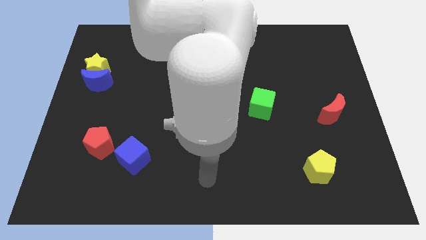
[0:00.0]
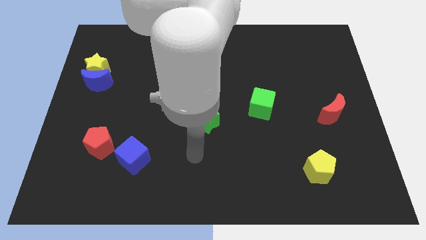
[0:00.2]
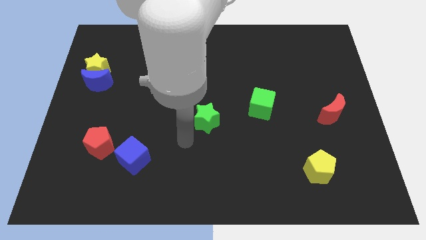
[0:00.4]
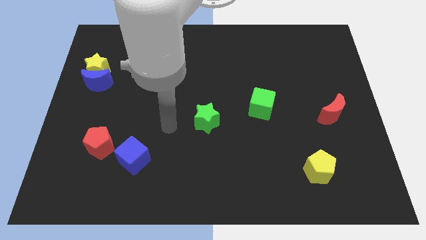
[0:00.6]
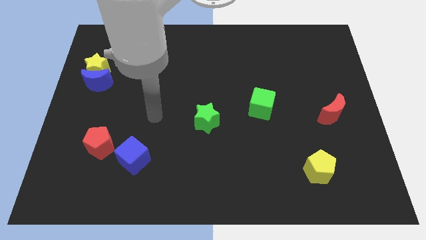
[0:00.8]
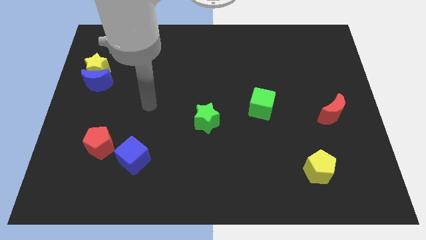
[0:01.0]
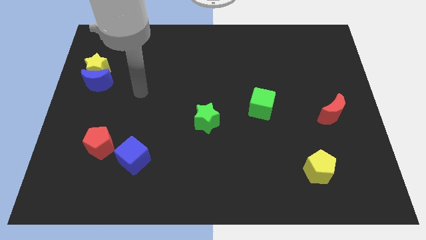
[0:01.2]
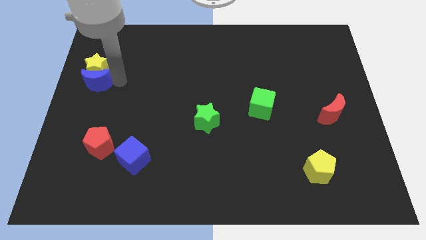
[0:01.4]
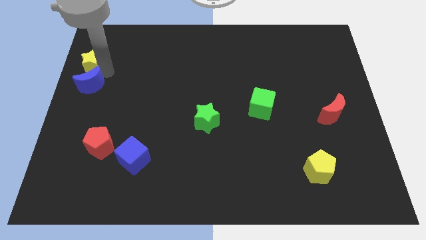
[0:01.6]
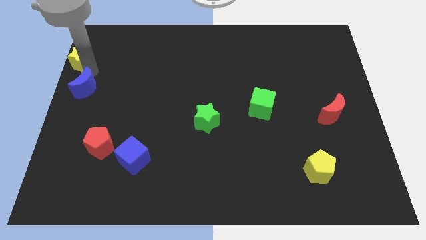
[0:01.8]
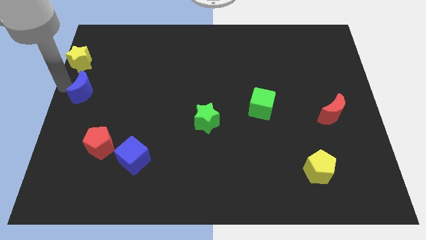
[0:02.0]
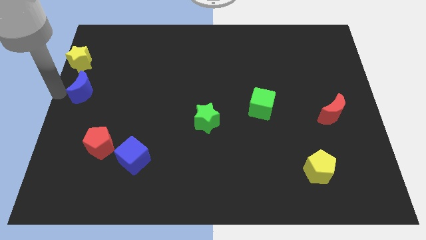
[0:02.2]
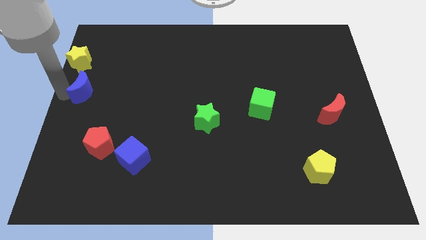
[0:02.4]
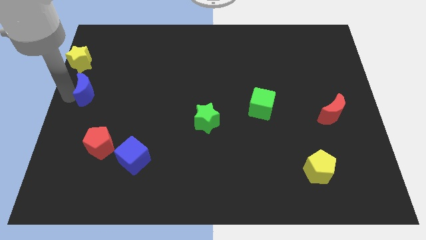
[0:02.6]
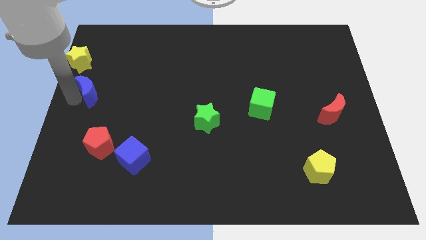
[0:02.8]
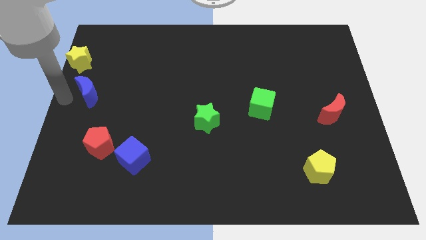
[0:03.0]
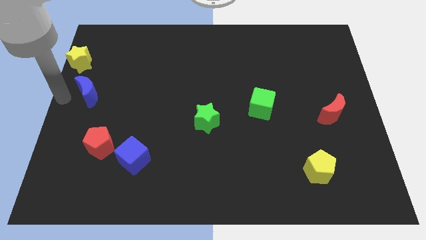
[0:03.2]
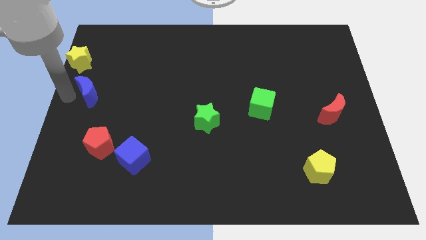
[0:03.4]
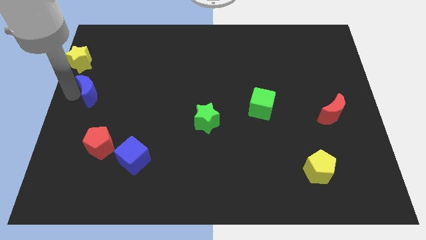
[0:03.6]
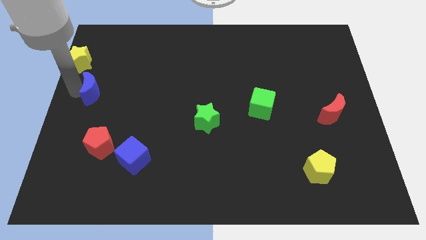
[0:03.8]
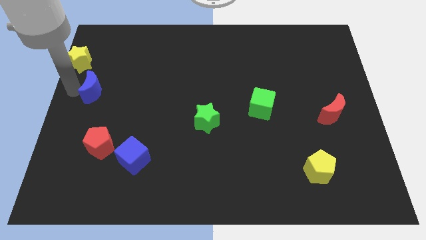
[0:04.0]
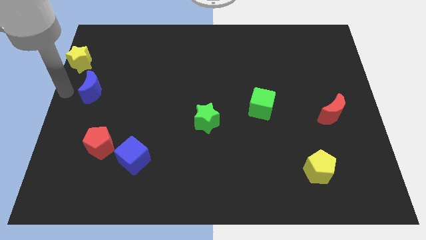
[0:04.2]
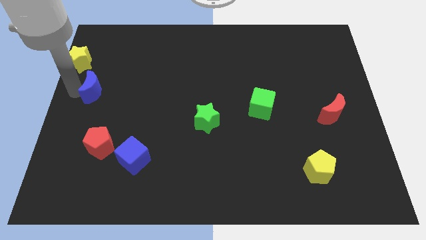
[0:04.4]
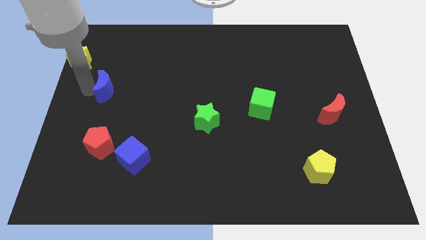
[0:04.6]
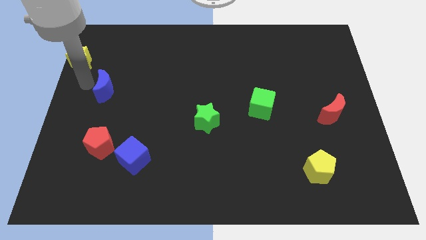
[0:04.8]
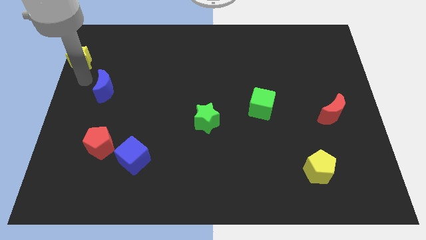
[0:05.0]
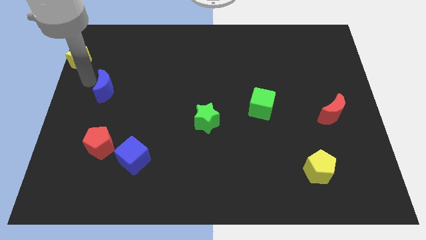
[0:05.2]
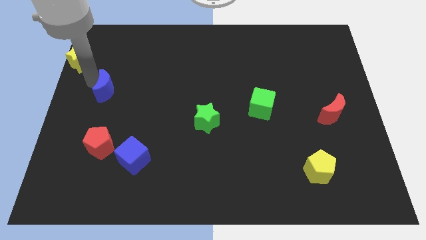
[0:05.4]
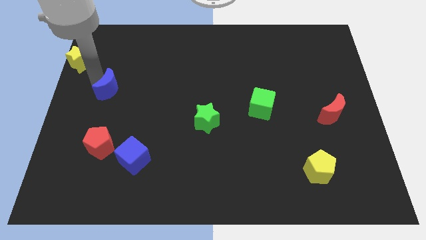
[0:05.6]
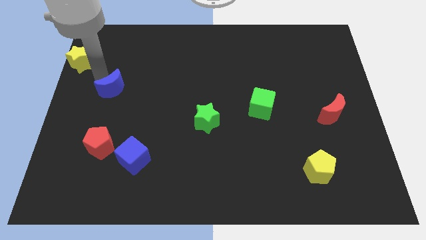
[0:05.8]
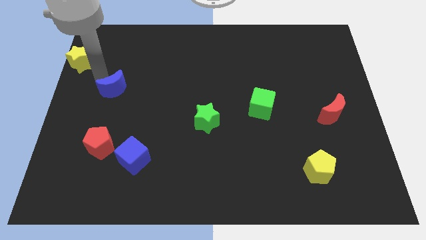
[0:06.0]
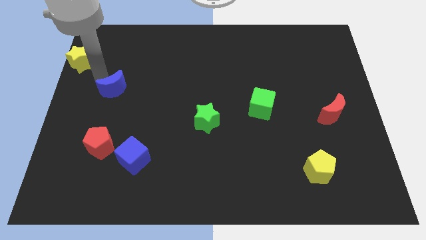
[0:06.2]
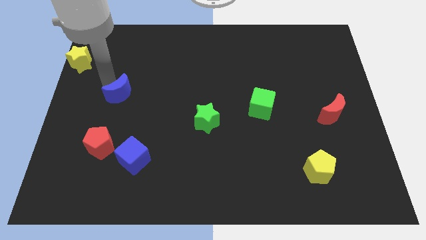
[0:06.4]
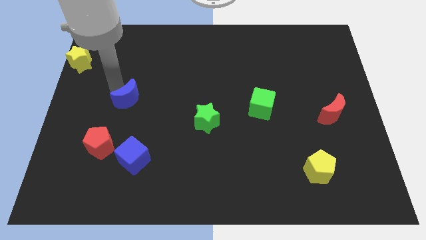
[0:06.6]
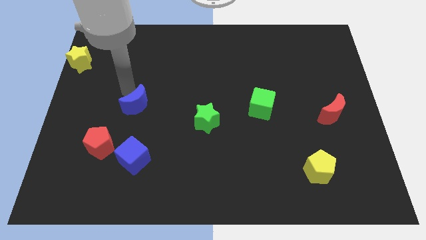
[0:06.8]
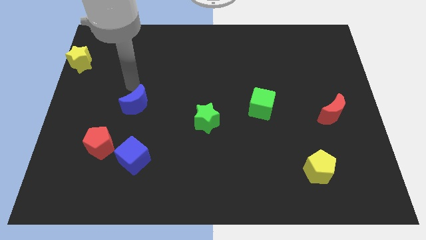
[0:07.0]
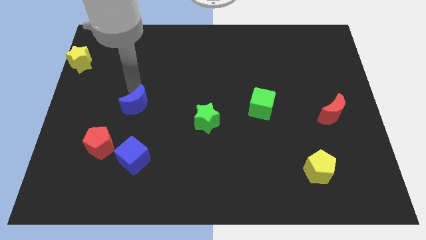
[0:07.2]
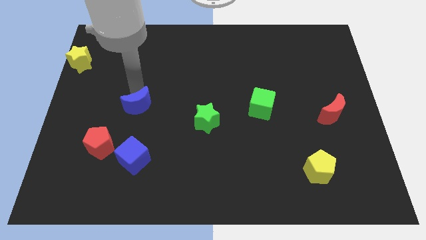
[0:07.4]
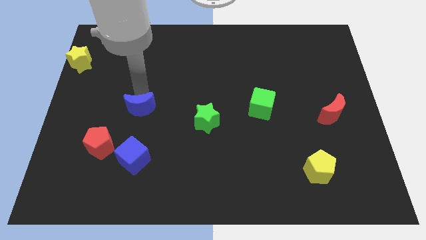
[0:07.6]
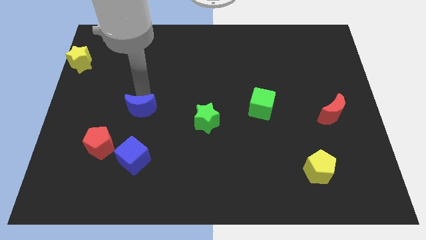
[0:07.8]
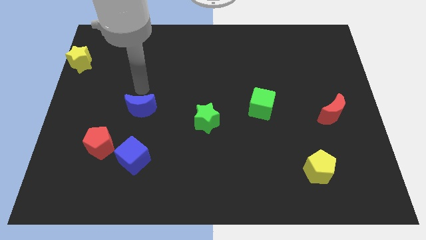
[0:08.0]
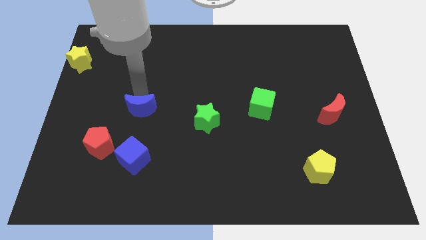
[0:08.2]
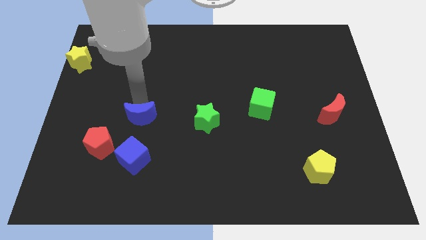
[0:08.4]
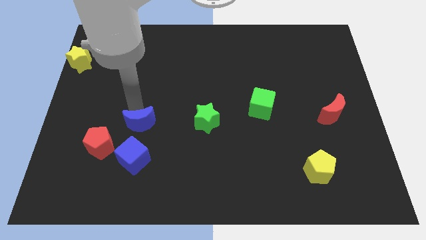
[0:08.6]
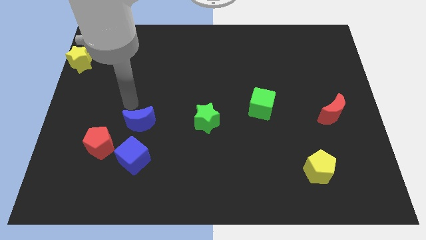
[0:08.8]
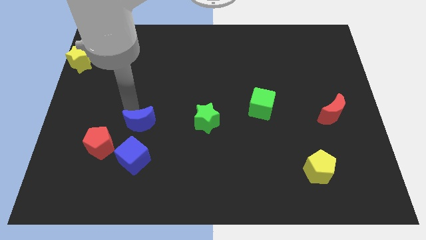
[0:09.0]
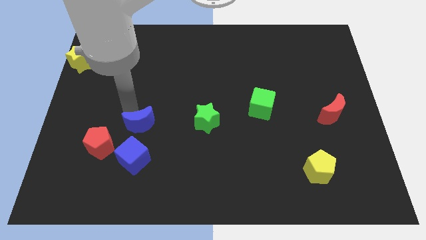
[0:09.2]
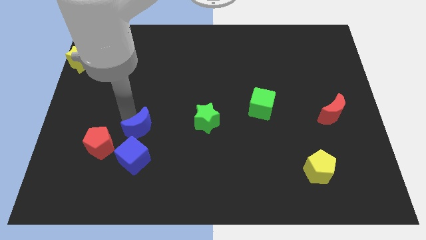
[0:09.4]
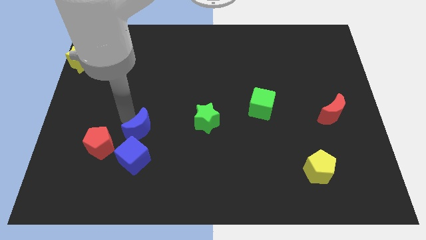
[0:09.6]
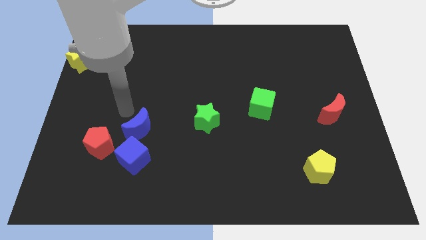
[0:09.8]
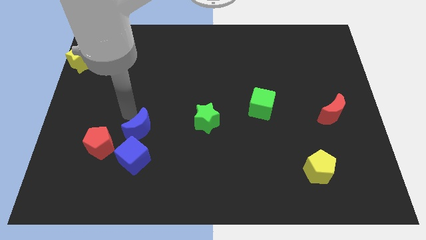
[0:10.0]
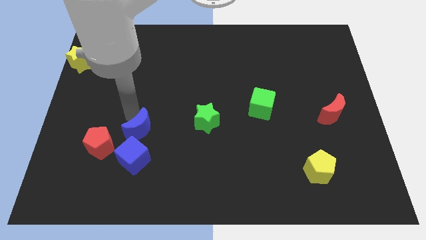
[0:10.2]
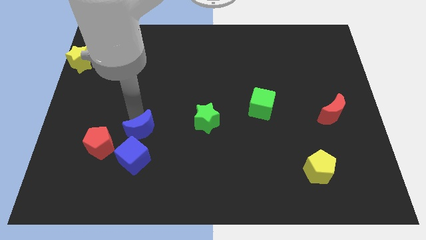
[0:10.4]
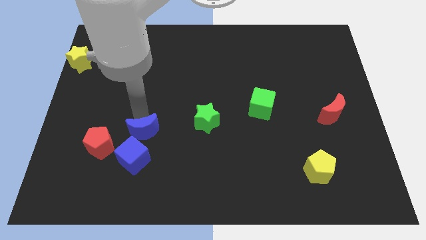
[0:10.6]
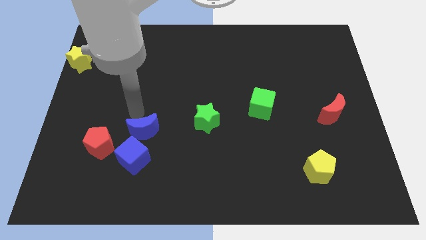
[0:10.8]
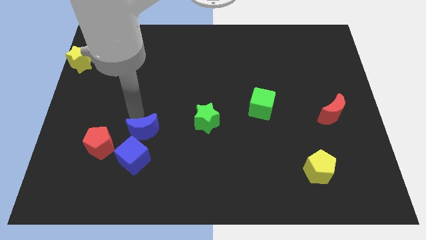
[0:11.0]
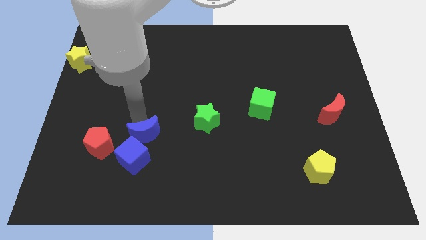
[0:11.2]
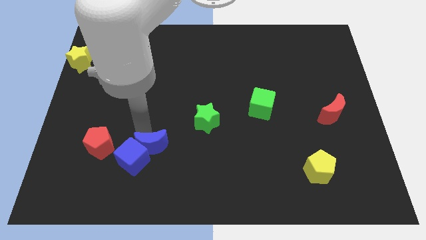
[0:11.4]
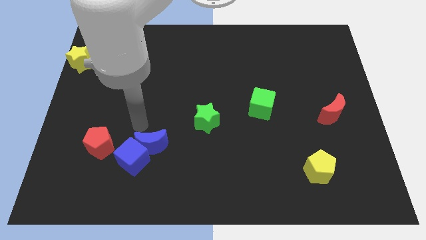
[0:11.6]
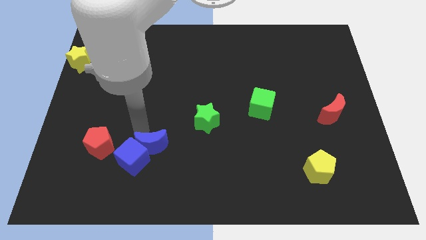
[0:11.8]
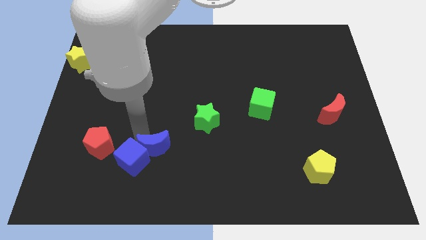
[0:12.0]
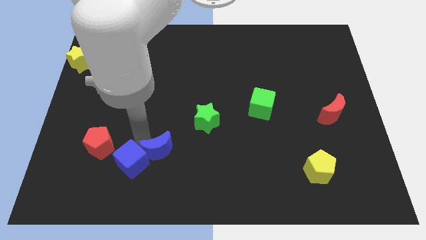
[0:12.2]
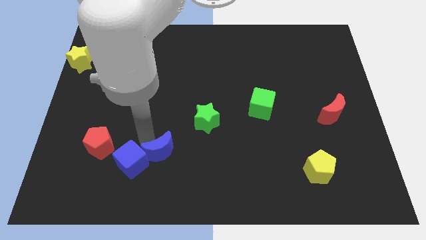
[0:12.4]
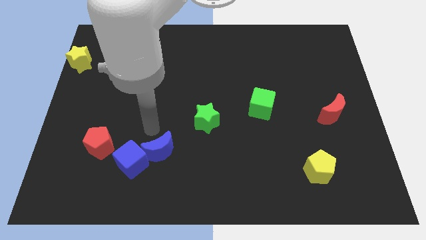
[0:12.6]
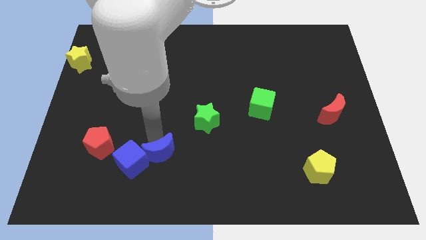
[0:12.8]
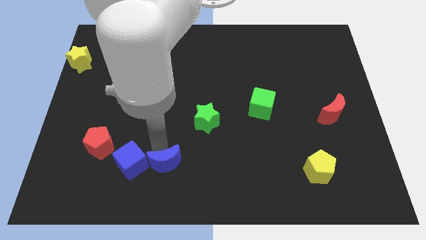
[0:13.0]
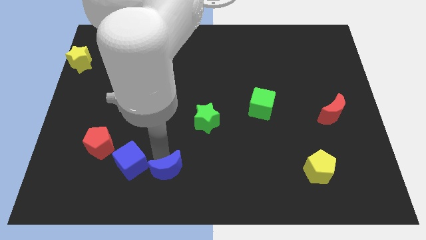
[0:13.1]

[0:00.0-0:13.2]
put the blue moon to the bottom side
